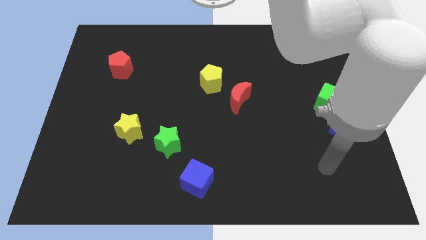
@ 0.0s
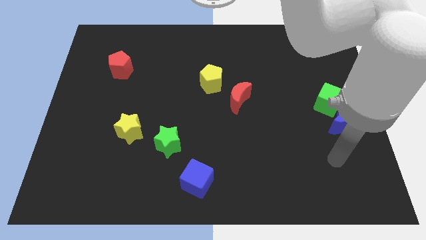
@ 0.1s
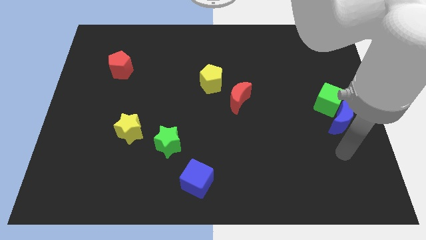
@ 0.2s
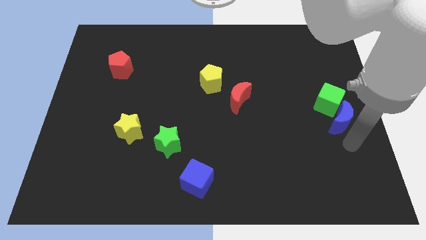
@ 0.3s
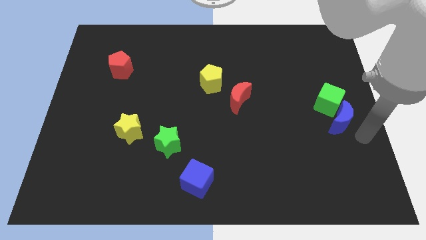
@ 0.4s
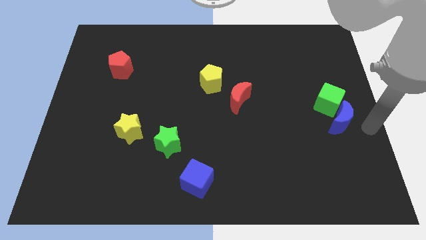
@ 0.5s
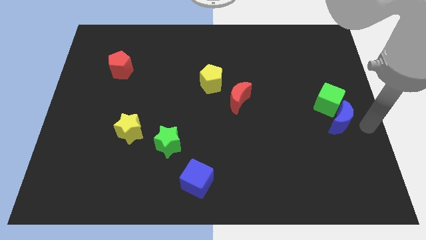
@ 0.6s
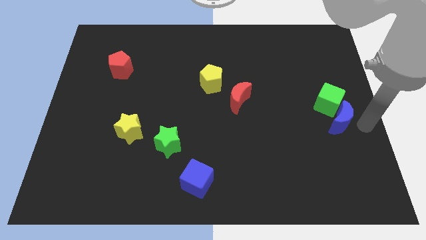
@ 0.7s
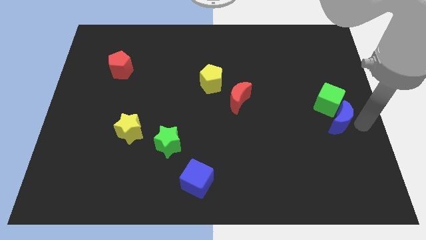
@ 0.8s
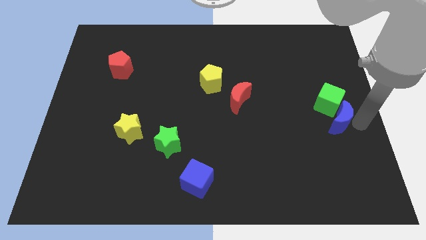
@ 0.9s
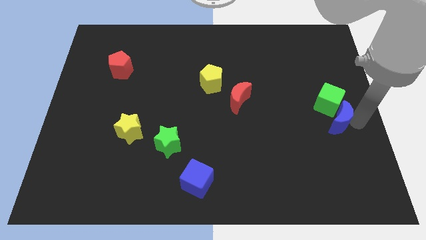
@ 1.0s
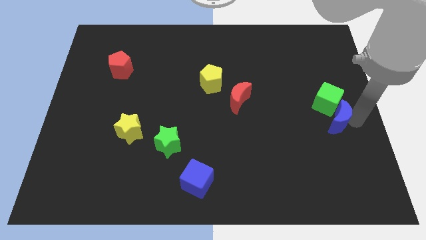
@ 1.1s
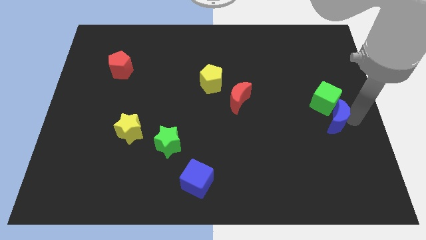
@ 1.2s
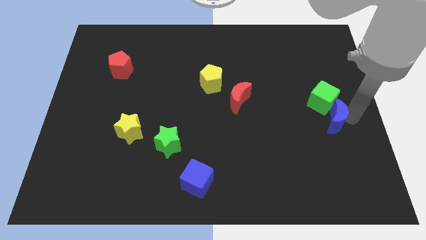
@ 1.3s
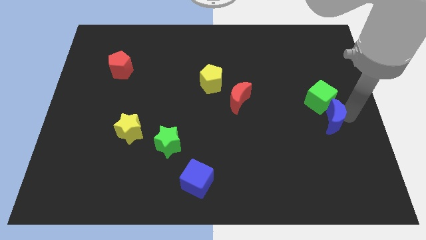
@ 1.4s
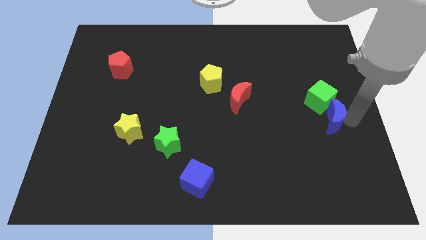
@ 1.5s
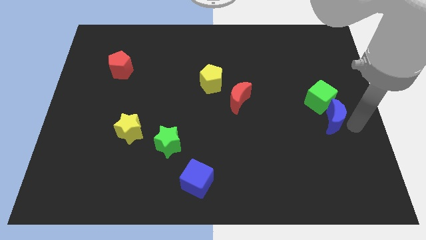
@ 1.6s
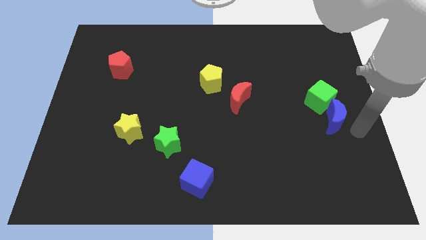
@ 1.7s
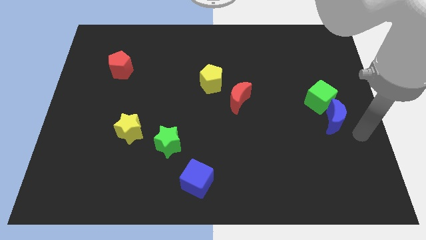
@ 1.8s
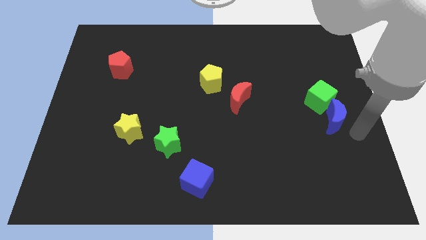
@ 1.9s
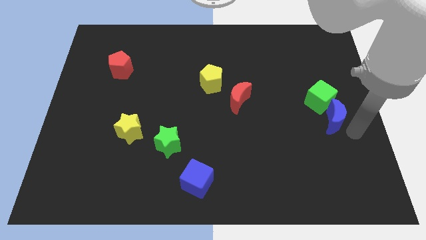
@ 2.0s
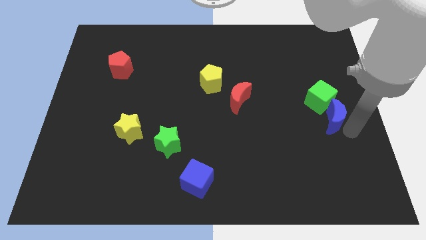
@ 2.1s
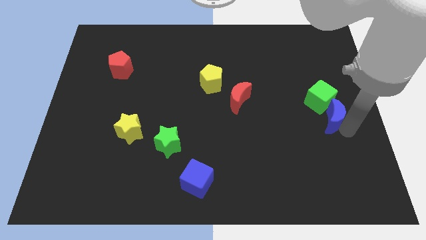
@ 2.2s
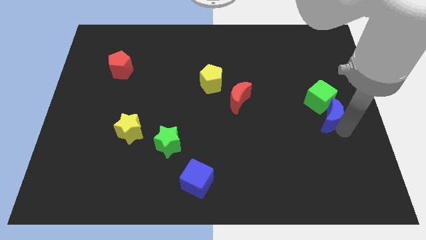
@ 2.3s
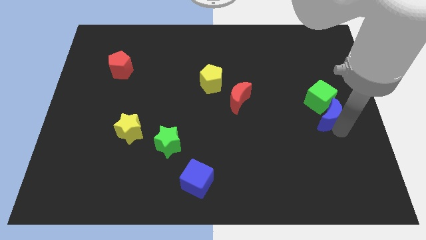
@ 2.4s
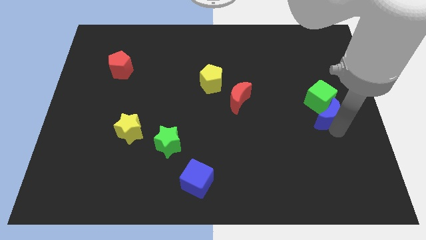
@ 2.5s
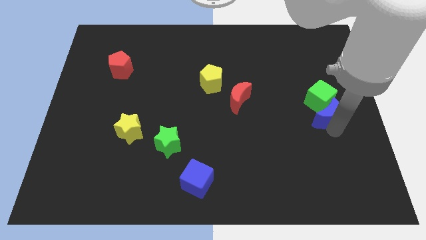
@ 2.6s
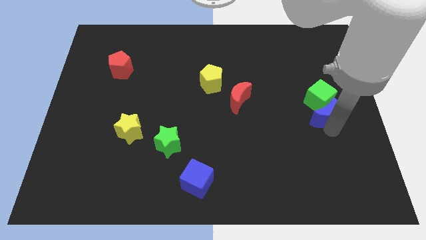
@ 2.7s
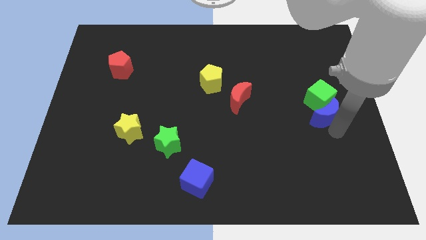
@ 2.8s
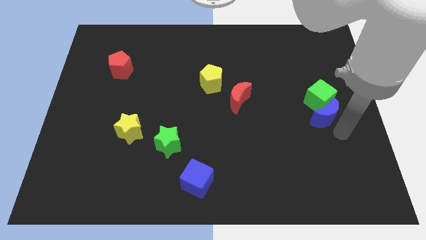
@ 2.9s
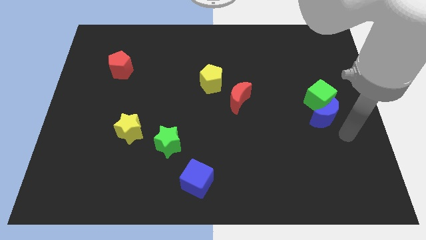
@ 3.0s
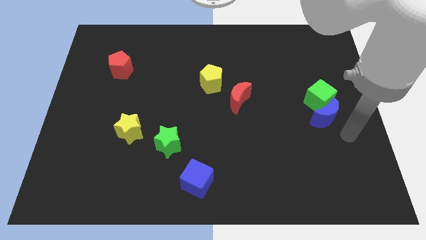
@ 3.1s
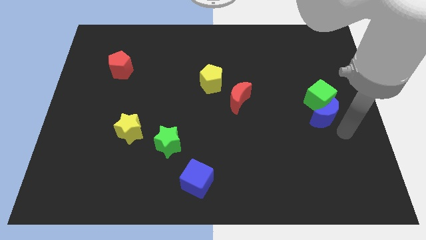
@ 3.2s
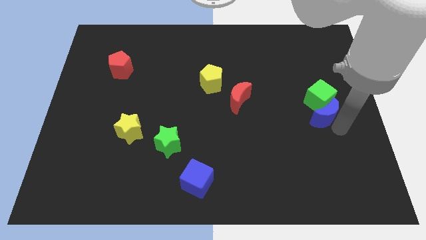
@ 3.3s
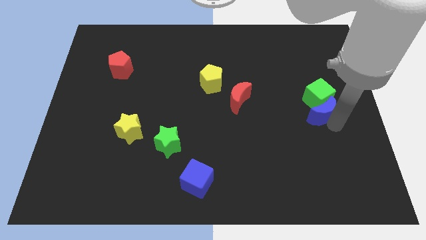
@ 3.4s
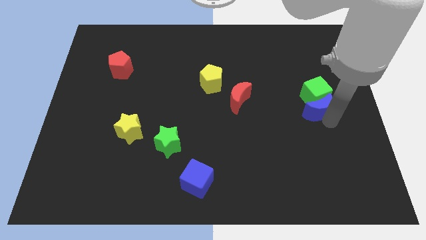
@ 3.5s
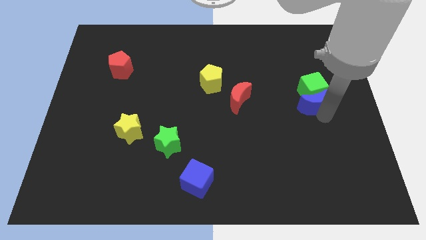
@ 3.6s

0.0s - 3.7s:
slide the blue moon a little diagonally upwards and to the left

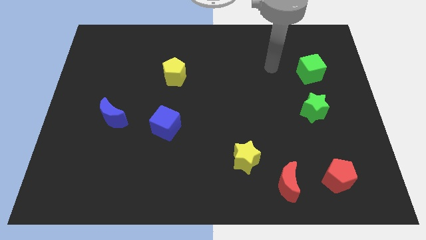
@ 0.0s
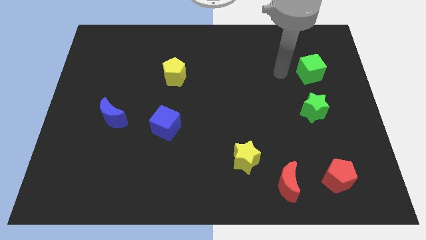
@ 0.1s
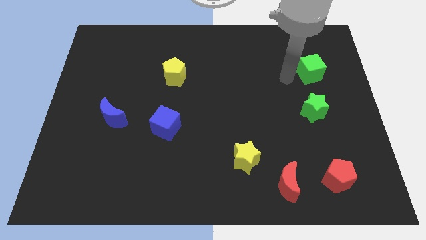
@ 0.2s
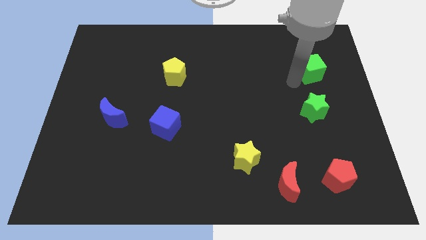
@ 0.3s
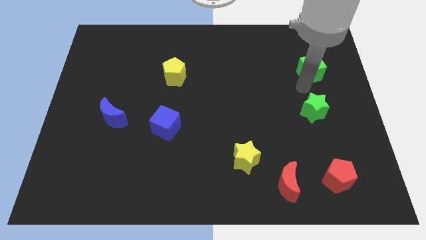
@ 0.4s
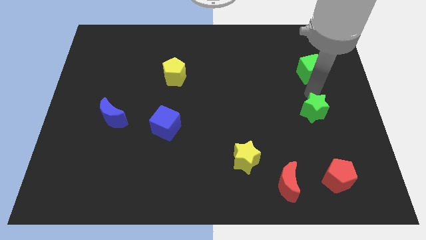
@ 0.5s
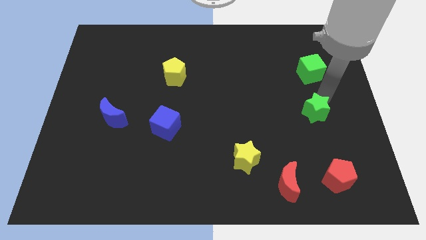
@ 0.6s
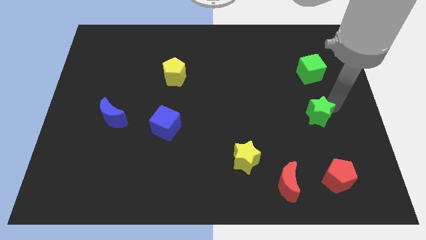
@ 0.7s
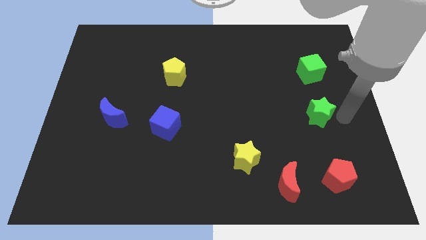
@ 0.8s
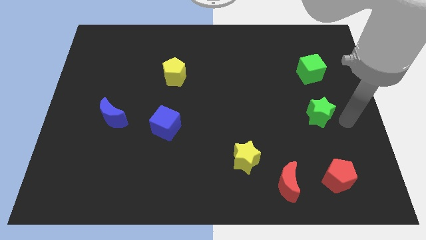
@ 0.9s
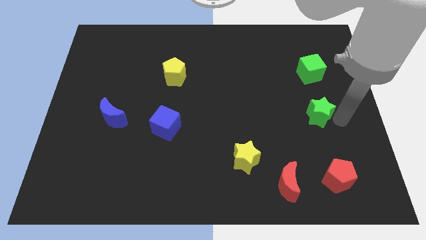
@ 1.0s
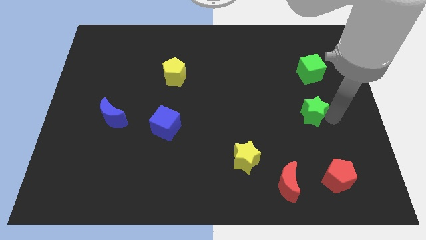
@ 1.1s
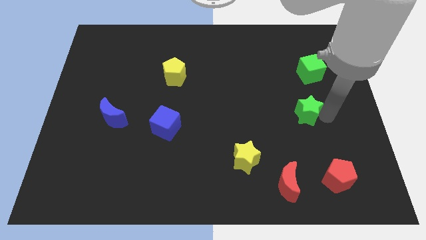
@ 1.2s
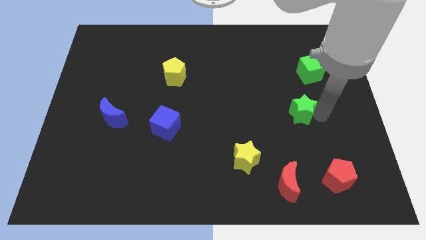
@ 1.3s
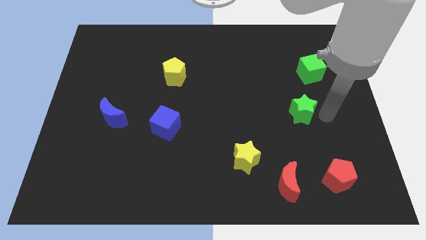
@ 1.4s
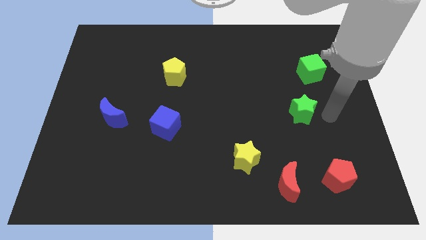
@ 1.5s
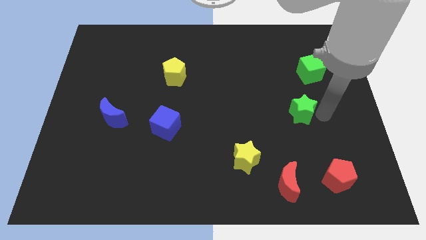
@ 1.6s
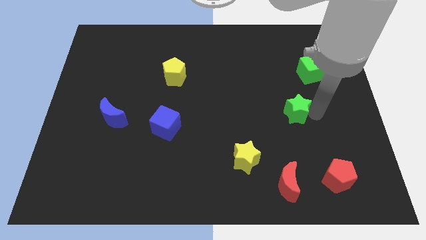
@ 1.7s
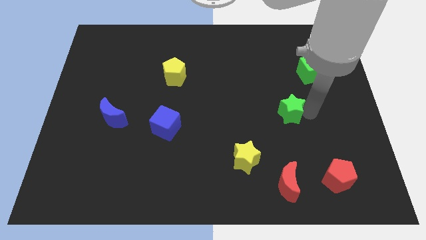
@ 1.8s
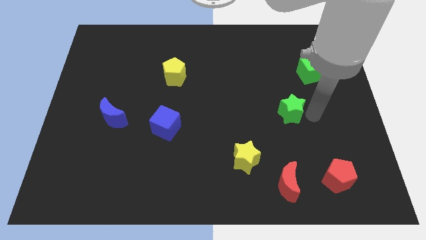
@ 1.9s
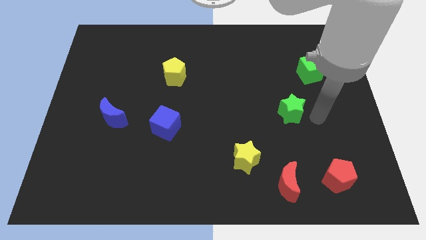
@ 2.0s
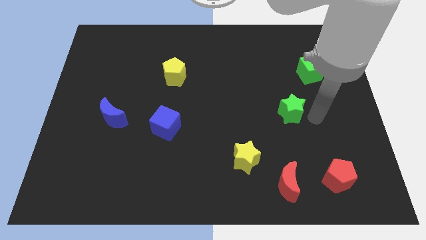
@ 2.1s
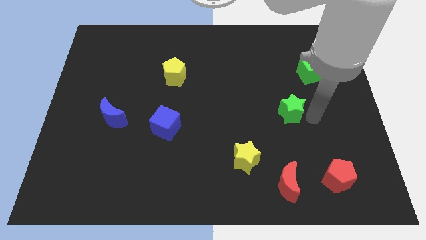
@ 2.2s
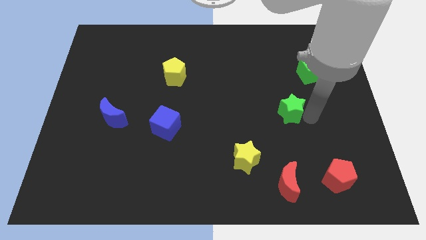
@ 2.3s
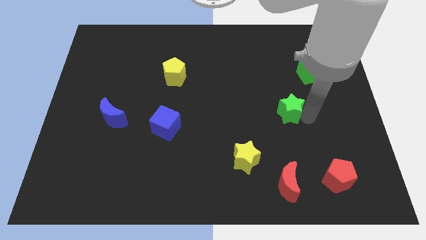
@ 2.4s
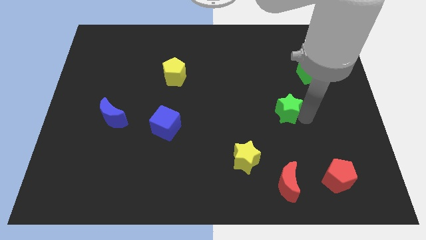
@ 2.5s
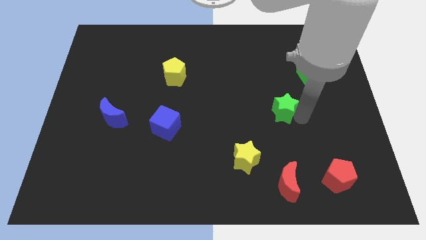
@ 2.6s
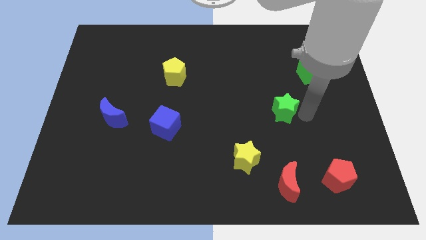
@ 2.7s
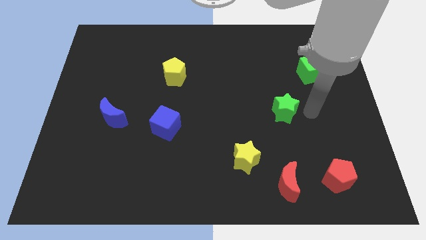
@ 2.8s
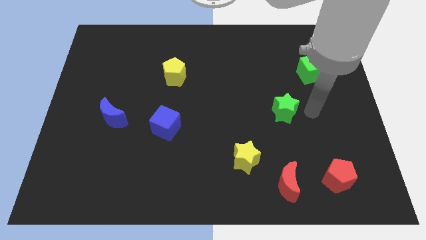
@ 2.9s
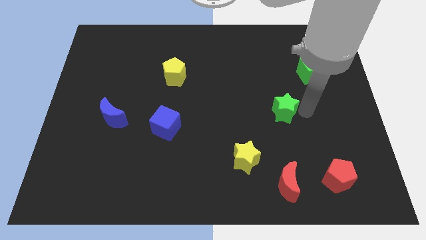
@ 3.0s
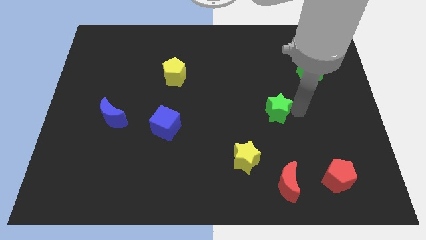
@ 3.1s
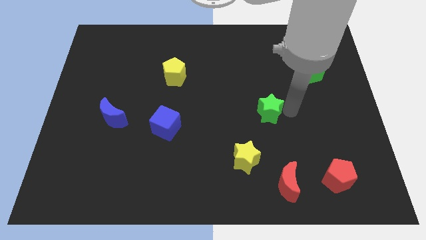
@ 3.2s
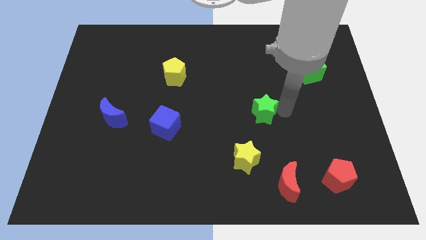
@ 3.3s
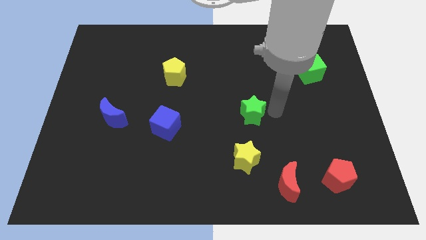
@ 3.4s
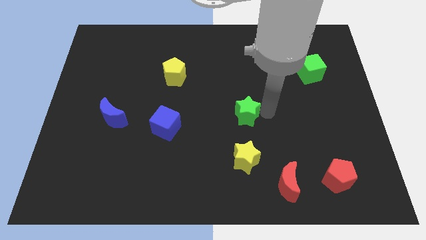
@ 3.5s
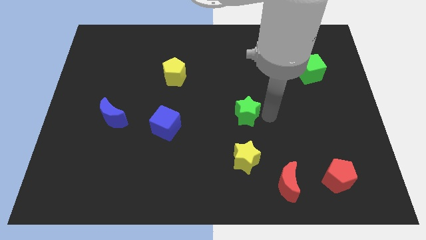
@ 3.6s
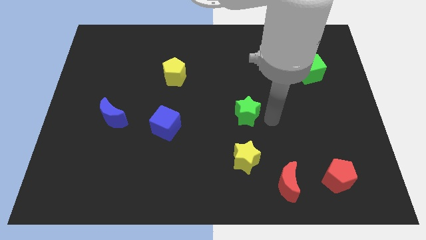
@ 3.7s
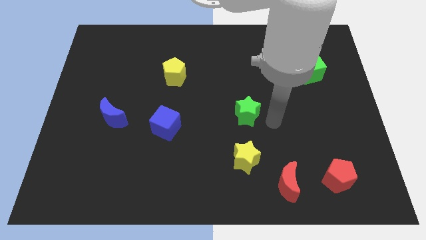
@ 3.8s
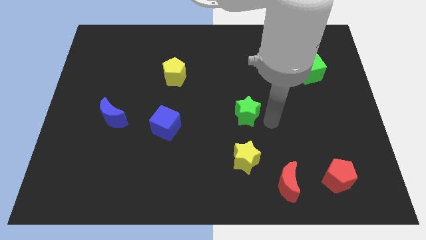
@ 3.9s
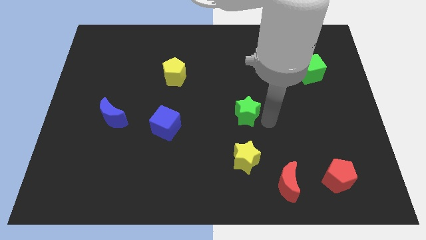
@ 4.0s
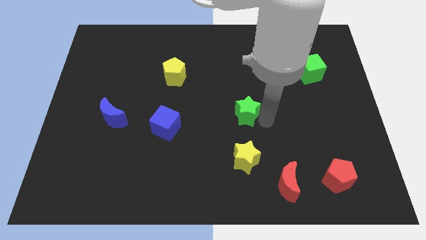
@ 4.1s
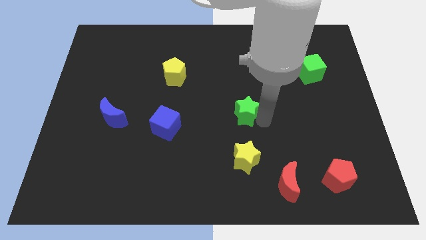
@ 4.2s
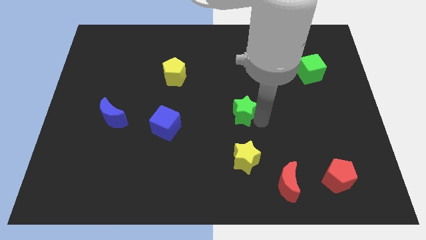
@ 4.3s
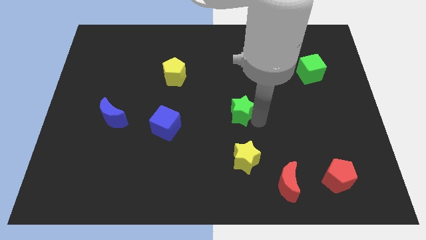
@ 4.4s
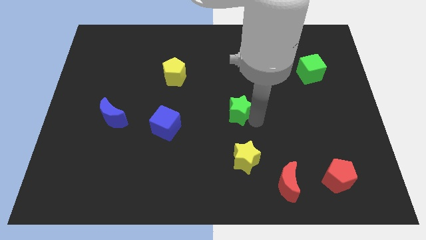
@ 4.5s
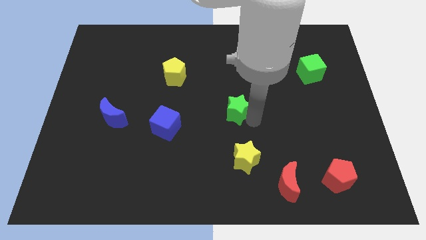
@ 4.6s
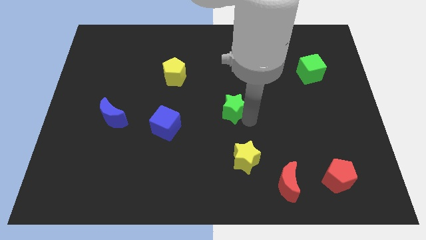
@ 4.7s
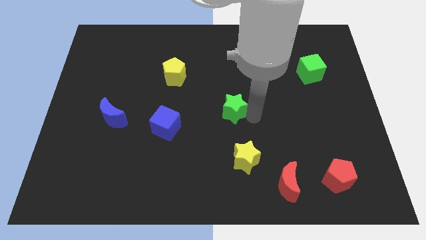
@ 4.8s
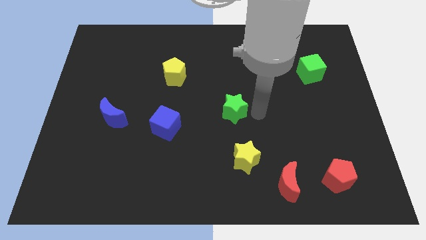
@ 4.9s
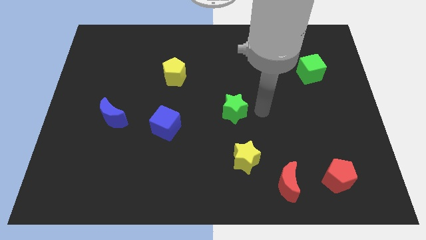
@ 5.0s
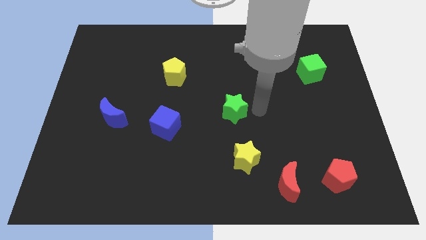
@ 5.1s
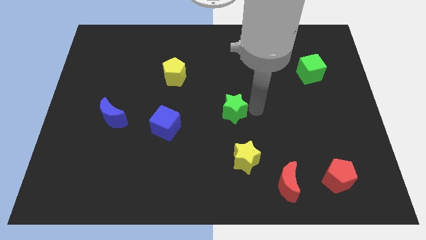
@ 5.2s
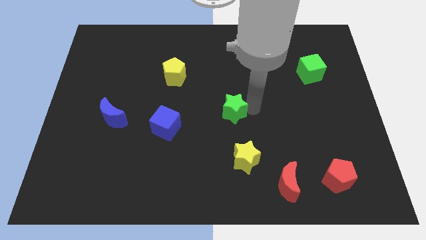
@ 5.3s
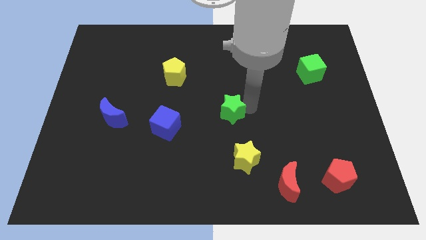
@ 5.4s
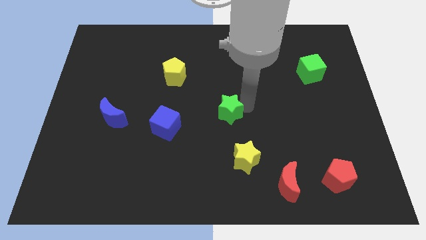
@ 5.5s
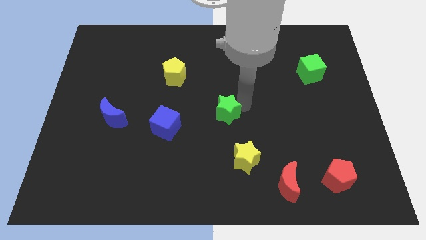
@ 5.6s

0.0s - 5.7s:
move the green star to the left
